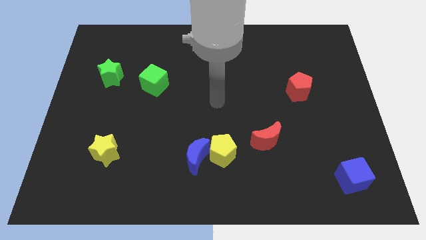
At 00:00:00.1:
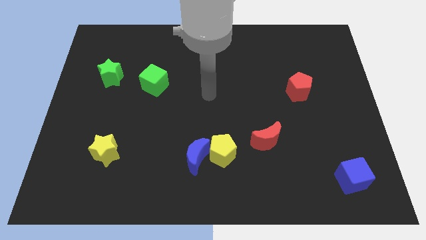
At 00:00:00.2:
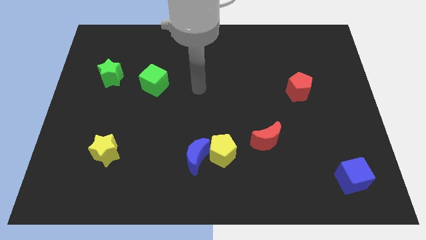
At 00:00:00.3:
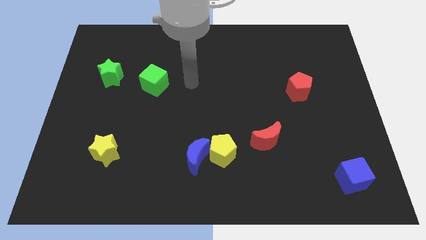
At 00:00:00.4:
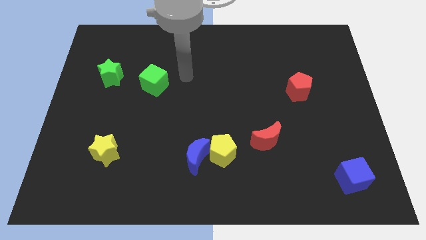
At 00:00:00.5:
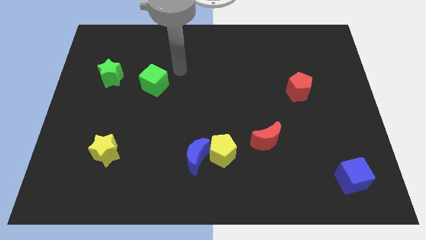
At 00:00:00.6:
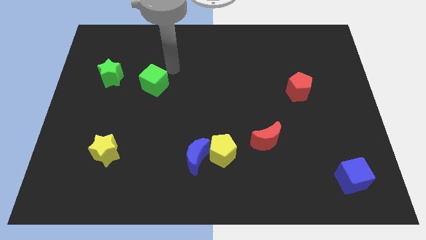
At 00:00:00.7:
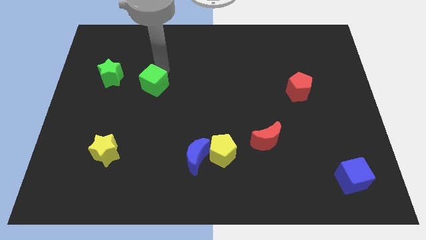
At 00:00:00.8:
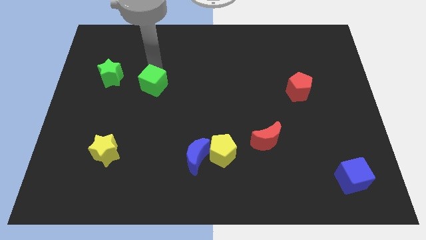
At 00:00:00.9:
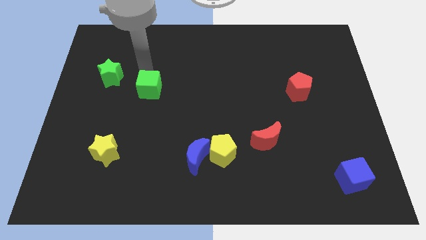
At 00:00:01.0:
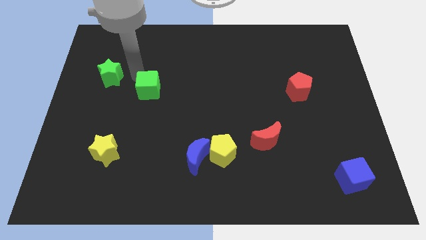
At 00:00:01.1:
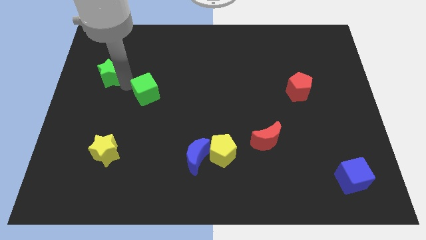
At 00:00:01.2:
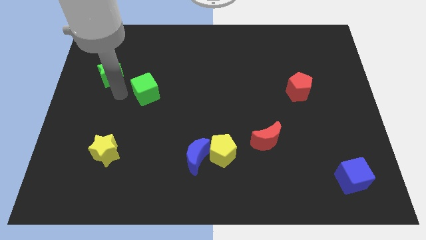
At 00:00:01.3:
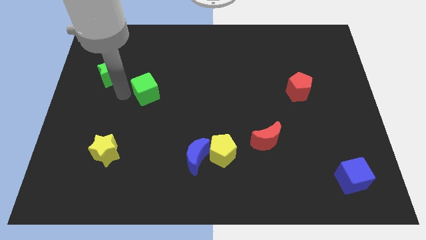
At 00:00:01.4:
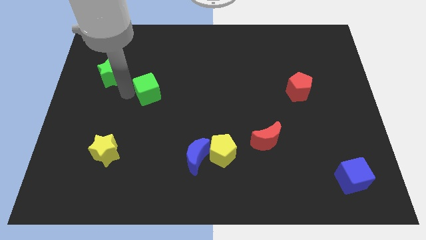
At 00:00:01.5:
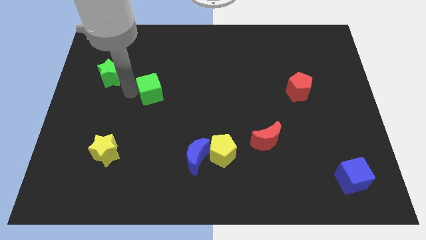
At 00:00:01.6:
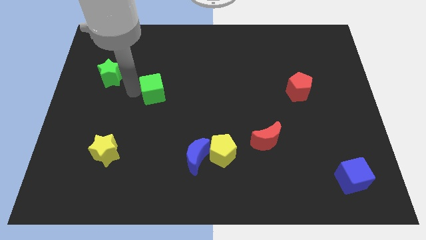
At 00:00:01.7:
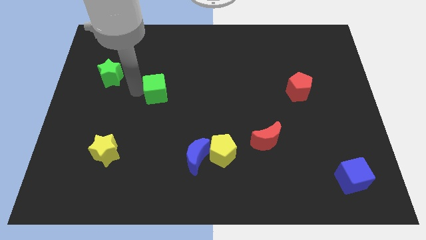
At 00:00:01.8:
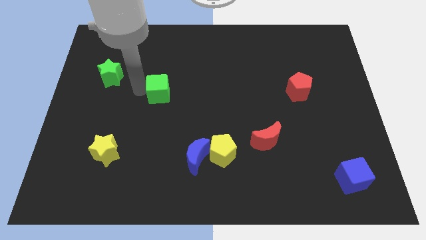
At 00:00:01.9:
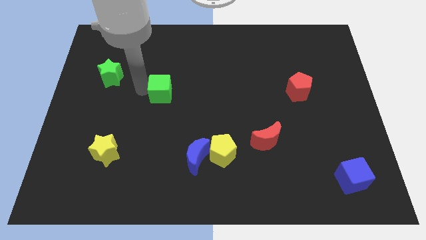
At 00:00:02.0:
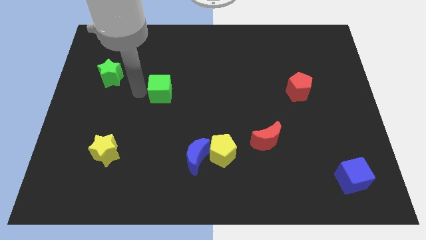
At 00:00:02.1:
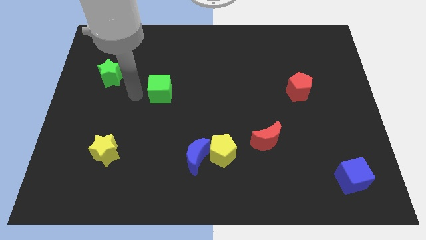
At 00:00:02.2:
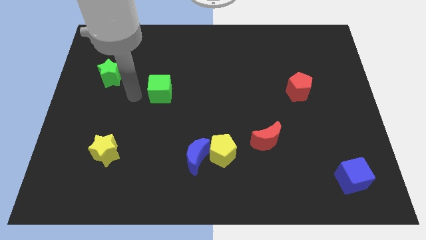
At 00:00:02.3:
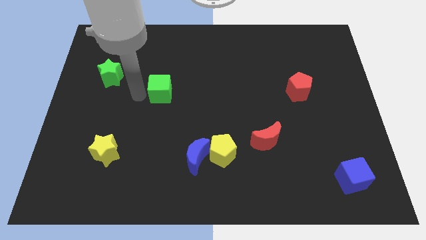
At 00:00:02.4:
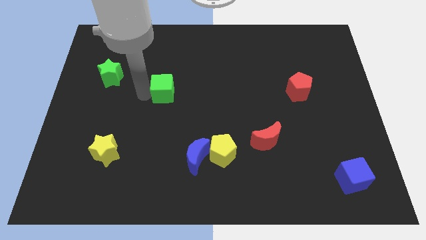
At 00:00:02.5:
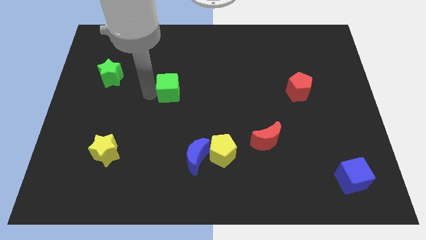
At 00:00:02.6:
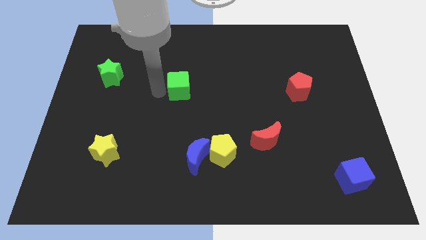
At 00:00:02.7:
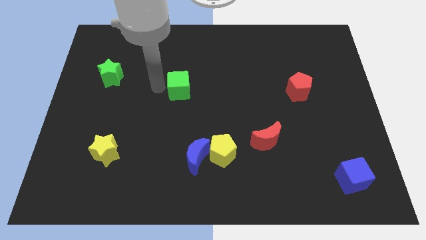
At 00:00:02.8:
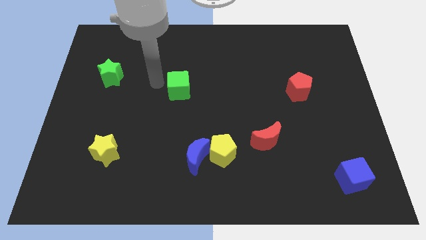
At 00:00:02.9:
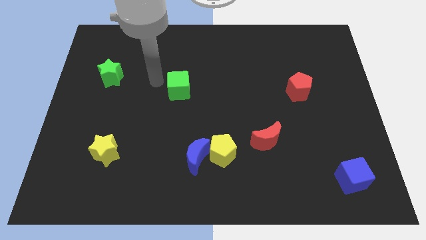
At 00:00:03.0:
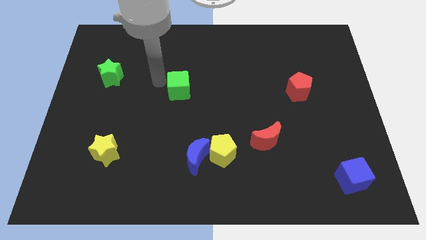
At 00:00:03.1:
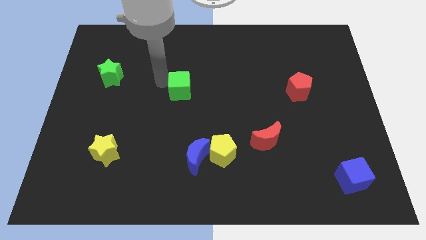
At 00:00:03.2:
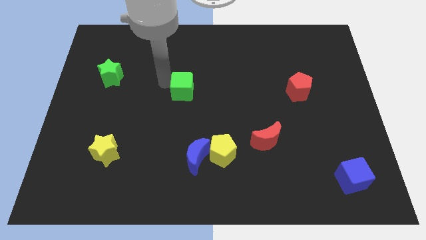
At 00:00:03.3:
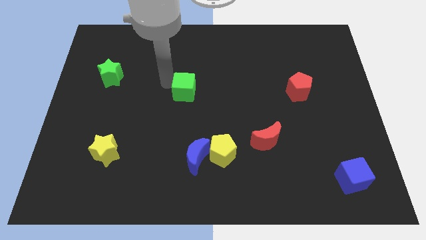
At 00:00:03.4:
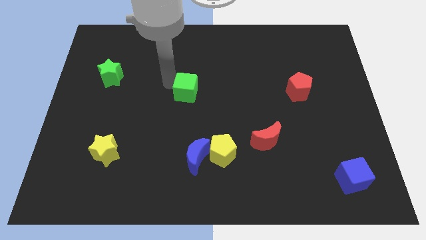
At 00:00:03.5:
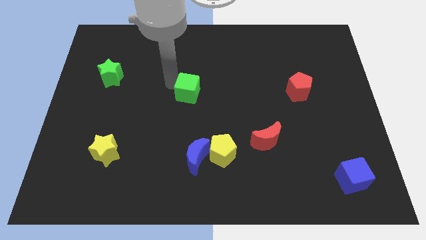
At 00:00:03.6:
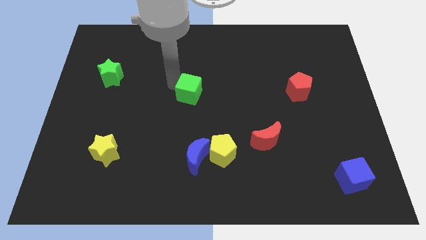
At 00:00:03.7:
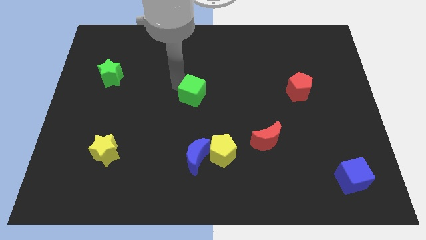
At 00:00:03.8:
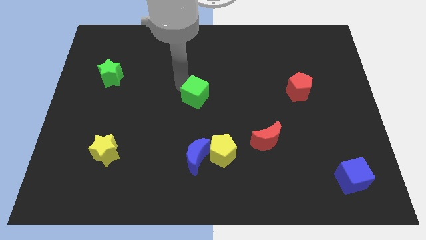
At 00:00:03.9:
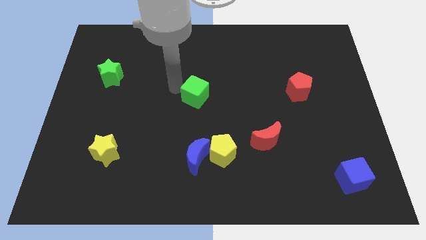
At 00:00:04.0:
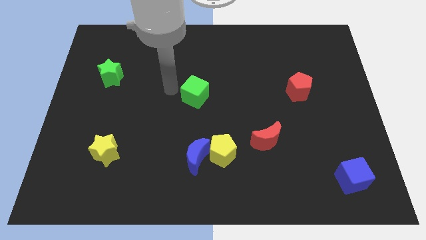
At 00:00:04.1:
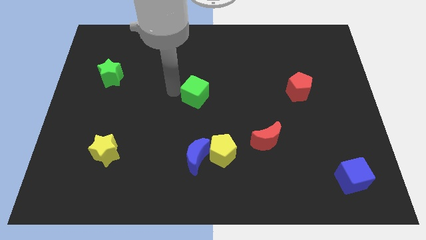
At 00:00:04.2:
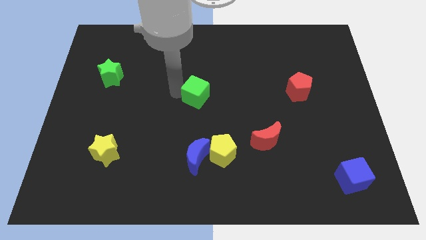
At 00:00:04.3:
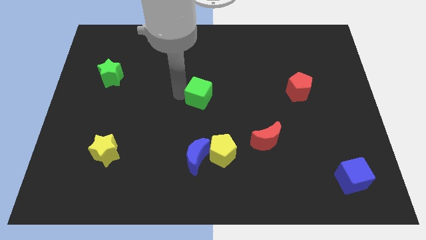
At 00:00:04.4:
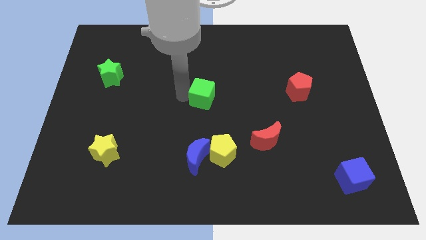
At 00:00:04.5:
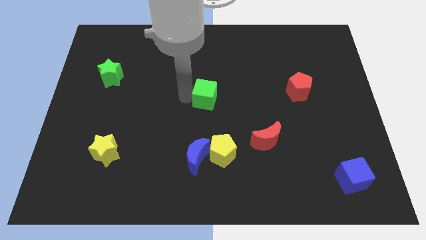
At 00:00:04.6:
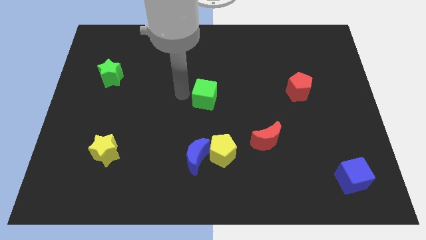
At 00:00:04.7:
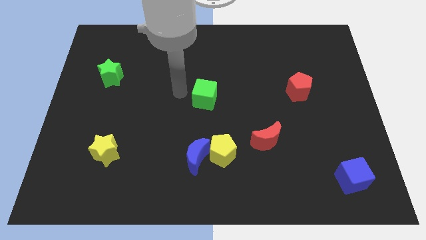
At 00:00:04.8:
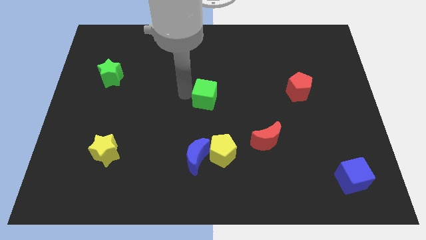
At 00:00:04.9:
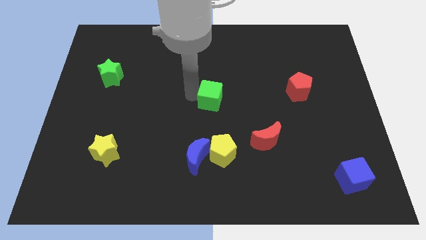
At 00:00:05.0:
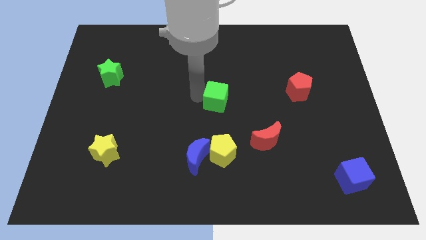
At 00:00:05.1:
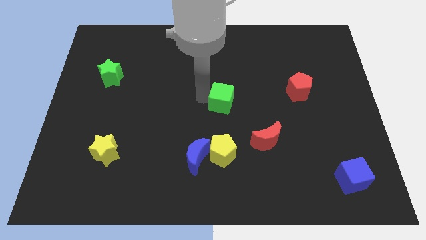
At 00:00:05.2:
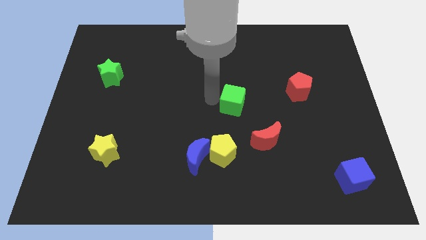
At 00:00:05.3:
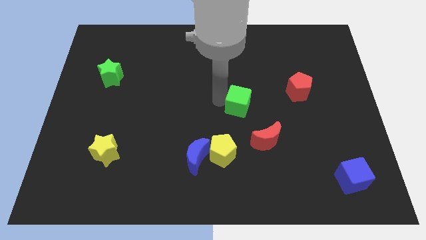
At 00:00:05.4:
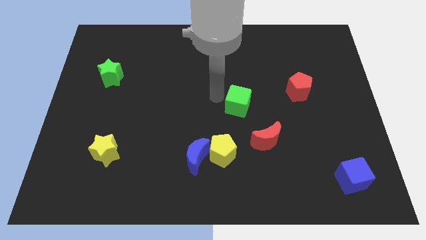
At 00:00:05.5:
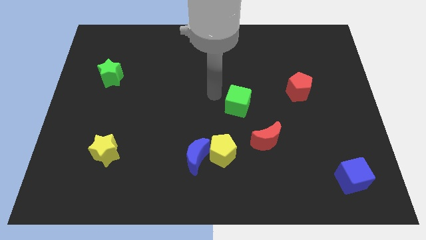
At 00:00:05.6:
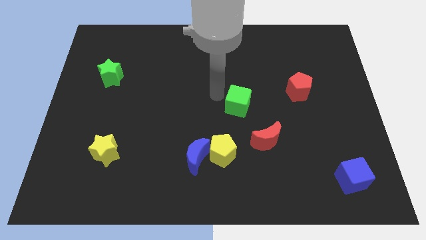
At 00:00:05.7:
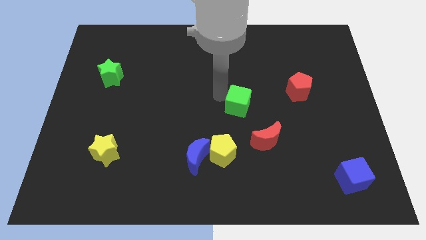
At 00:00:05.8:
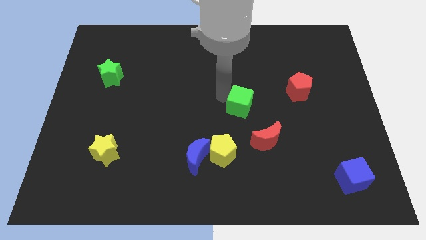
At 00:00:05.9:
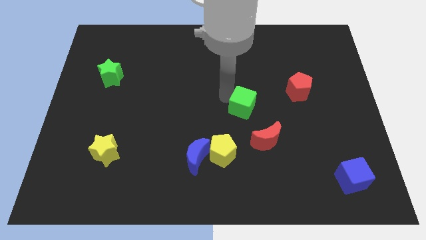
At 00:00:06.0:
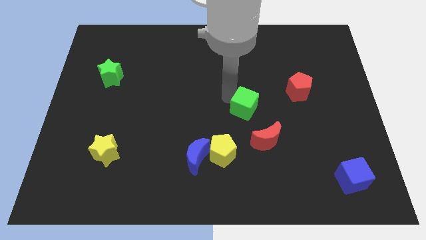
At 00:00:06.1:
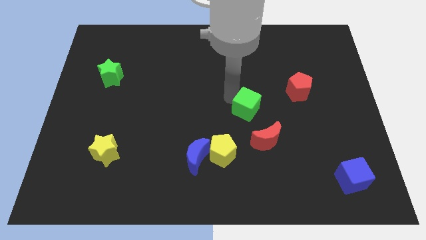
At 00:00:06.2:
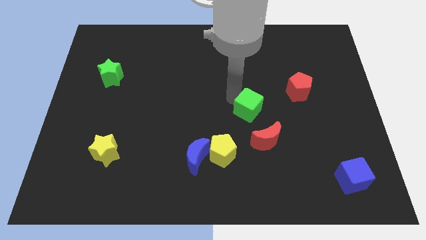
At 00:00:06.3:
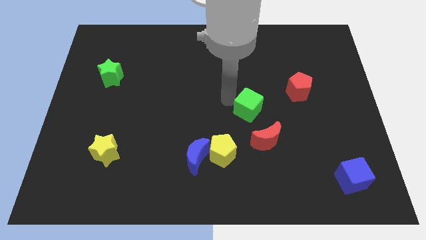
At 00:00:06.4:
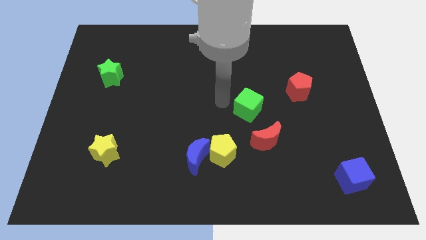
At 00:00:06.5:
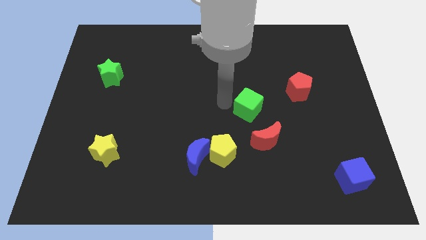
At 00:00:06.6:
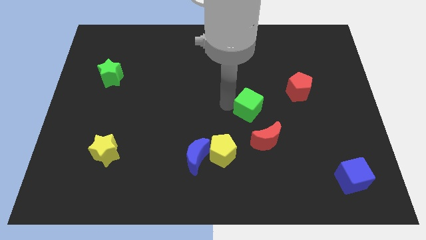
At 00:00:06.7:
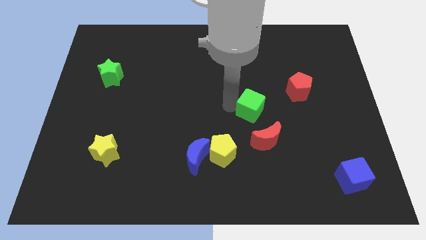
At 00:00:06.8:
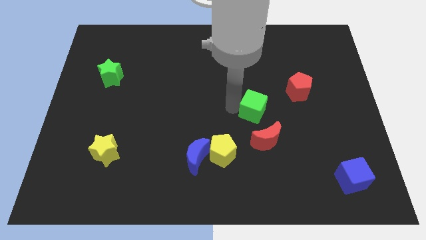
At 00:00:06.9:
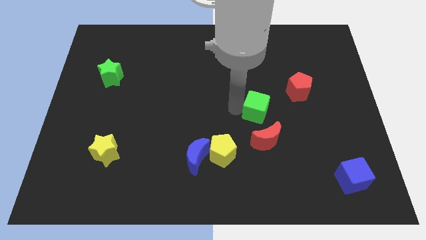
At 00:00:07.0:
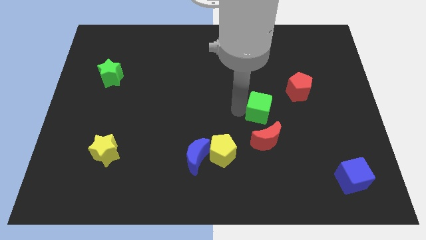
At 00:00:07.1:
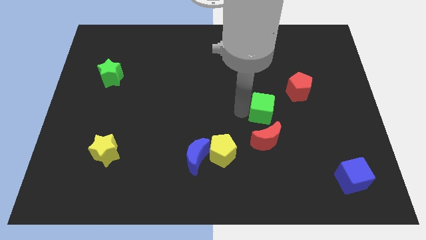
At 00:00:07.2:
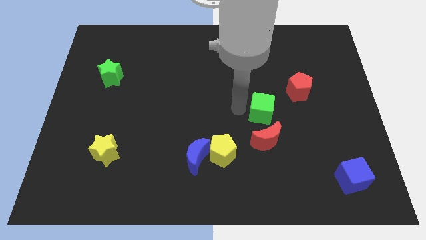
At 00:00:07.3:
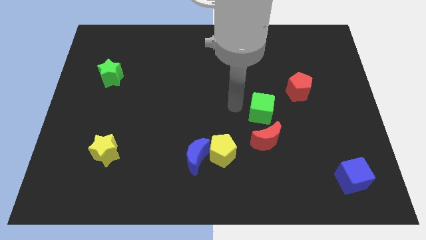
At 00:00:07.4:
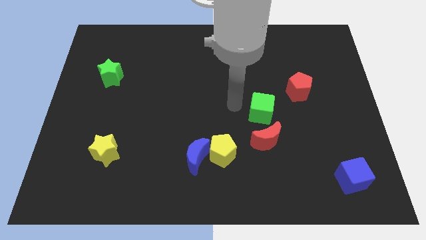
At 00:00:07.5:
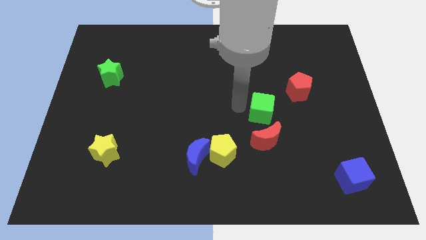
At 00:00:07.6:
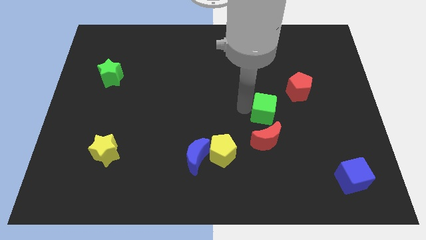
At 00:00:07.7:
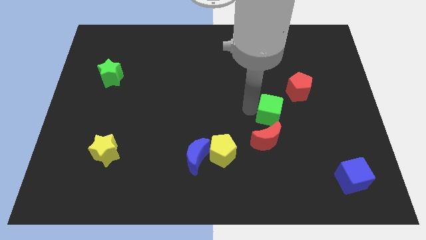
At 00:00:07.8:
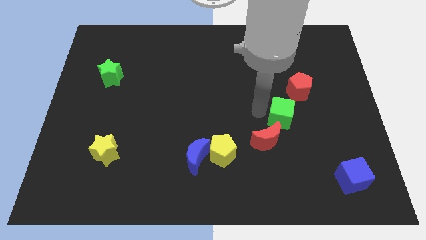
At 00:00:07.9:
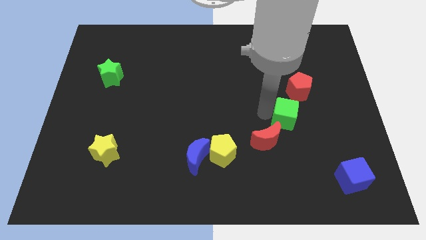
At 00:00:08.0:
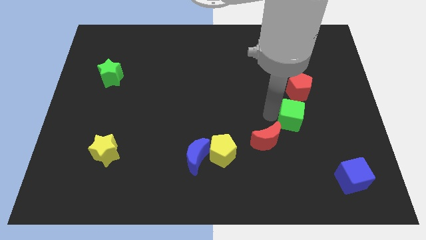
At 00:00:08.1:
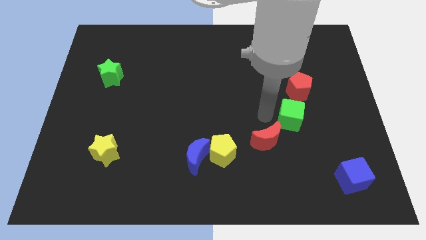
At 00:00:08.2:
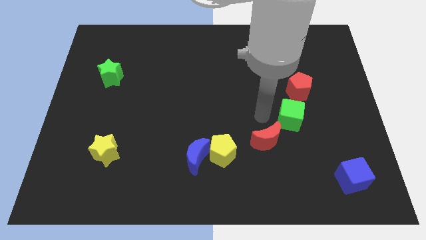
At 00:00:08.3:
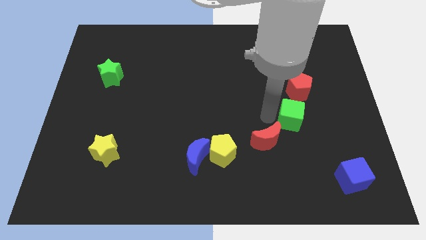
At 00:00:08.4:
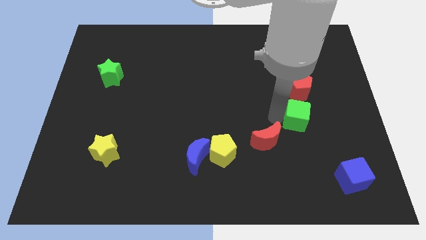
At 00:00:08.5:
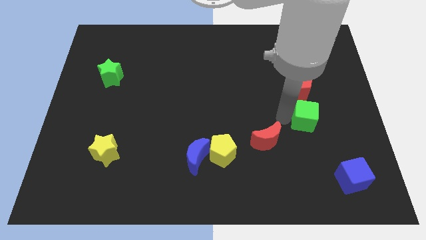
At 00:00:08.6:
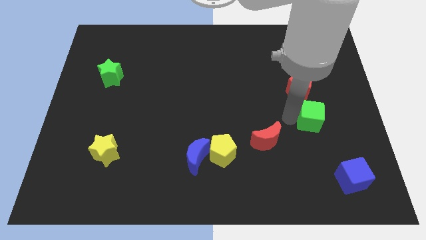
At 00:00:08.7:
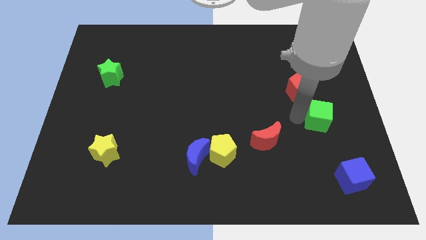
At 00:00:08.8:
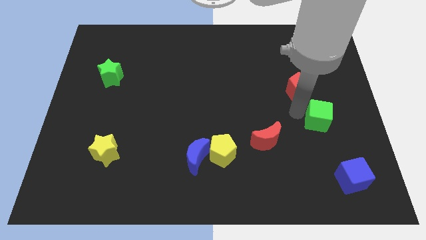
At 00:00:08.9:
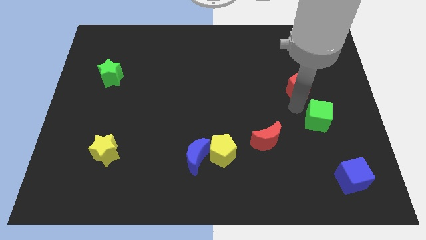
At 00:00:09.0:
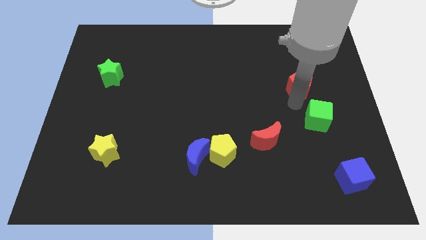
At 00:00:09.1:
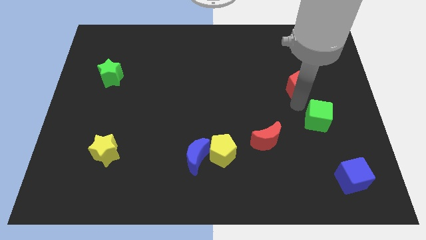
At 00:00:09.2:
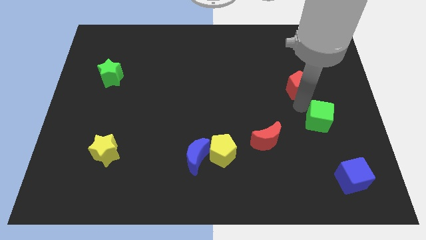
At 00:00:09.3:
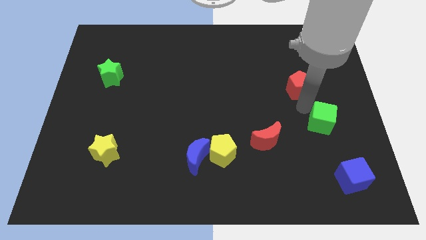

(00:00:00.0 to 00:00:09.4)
push the green cube above the blue cube
